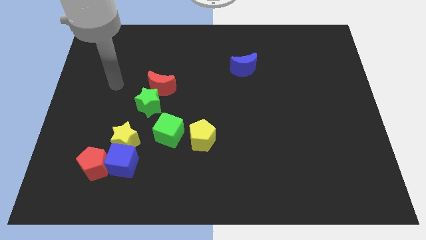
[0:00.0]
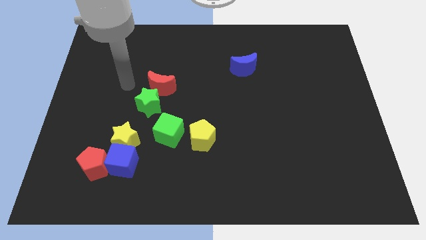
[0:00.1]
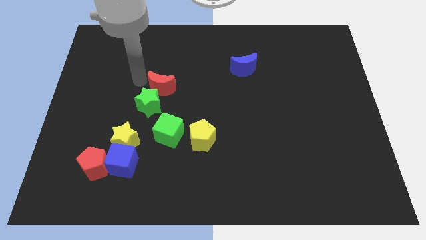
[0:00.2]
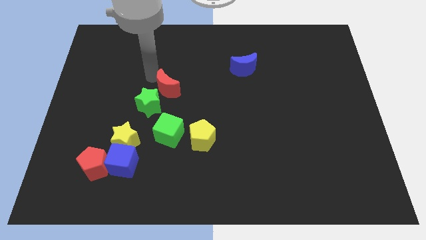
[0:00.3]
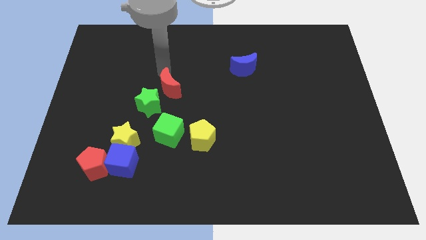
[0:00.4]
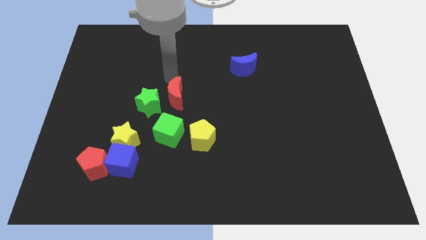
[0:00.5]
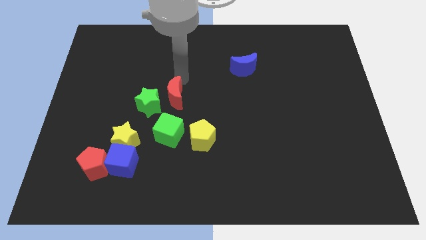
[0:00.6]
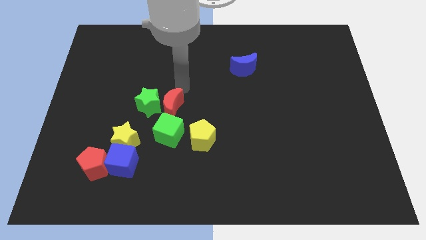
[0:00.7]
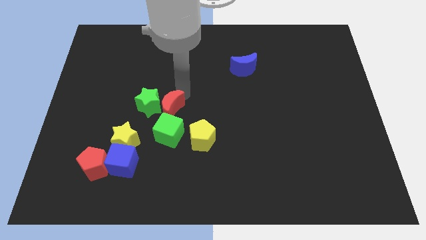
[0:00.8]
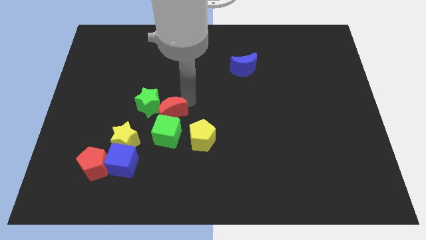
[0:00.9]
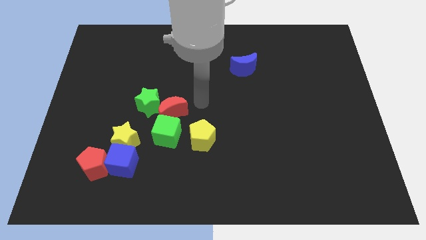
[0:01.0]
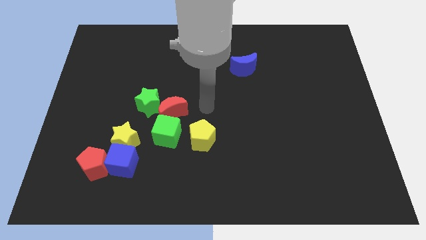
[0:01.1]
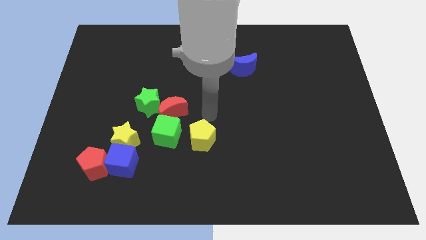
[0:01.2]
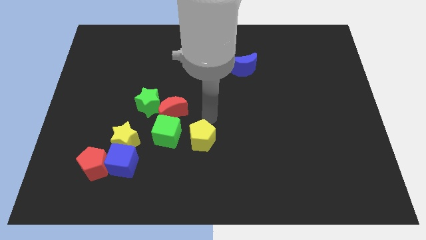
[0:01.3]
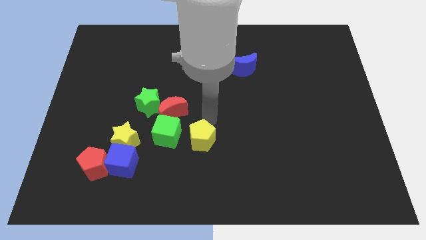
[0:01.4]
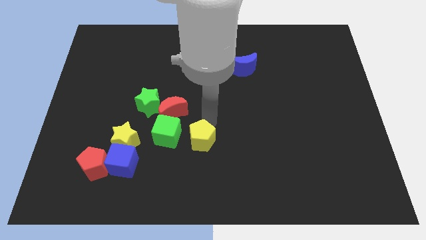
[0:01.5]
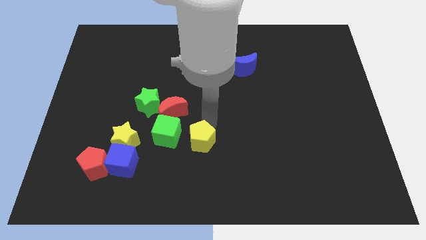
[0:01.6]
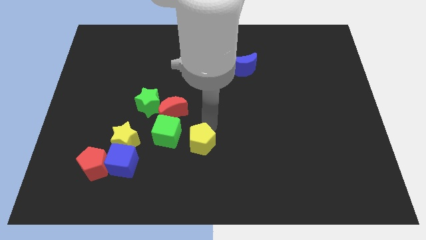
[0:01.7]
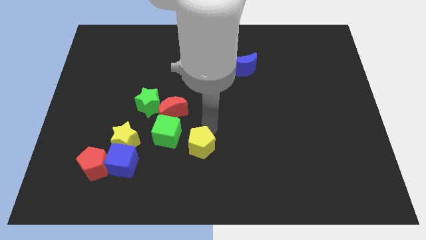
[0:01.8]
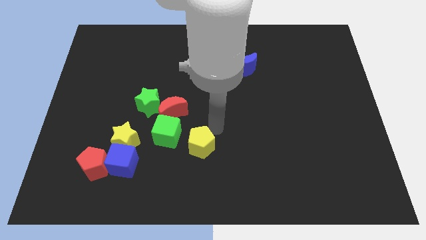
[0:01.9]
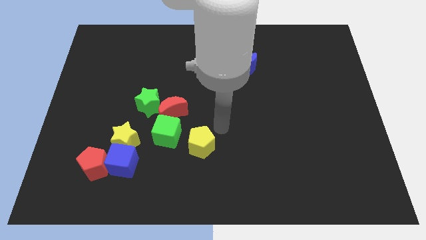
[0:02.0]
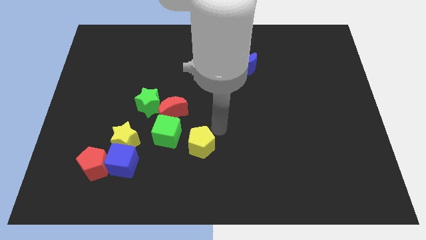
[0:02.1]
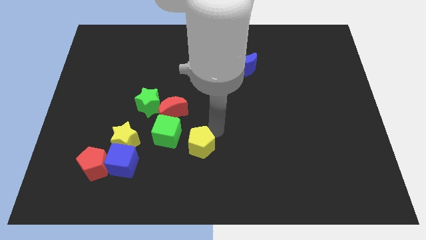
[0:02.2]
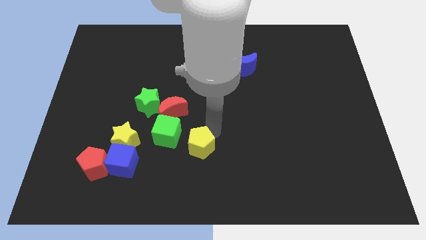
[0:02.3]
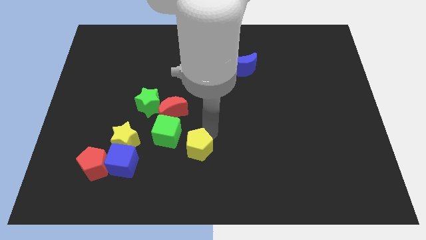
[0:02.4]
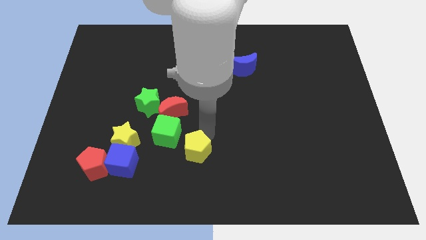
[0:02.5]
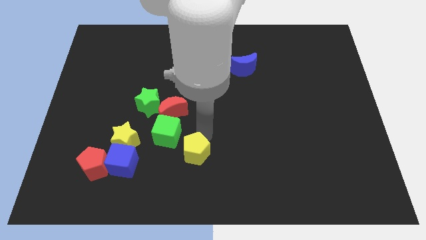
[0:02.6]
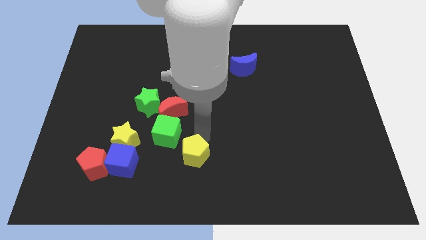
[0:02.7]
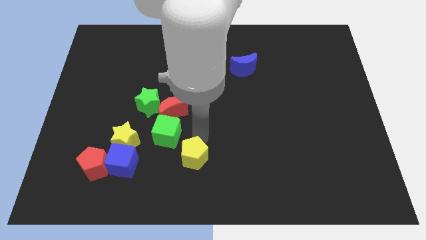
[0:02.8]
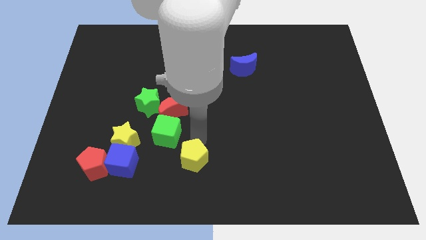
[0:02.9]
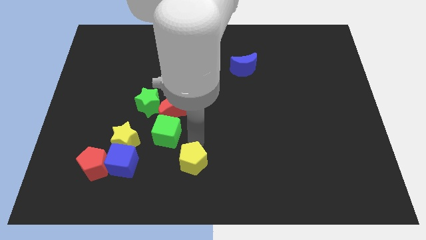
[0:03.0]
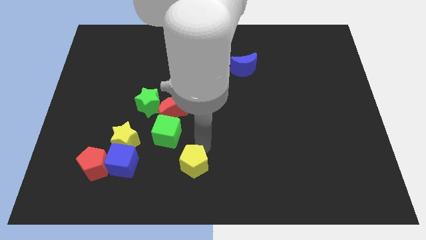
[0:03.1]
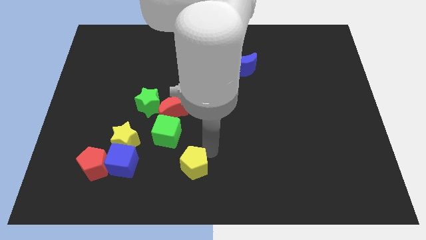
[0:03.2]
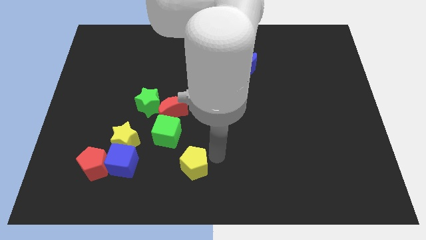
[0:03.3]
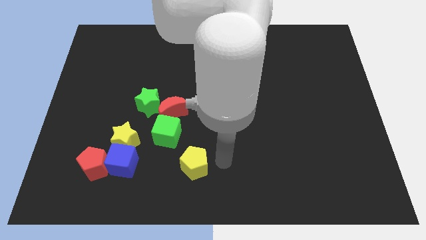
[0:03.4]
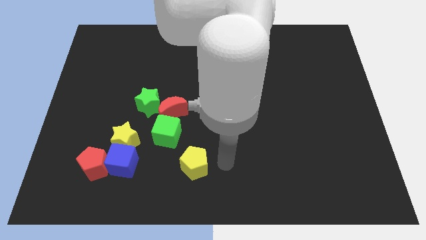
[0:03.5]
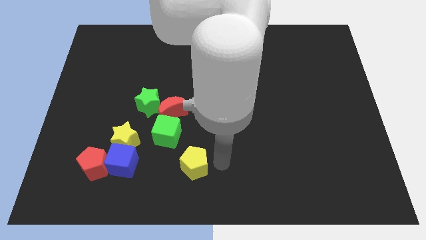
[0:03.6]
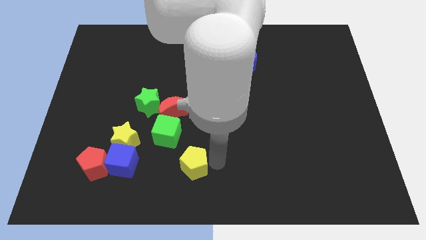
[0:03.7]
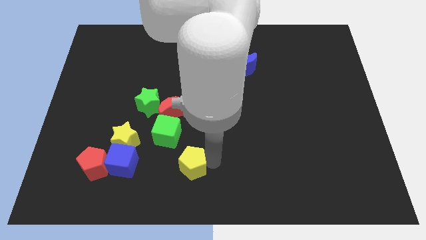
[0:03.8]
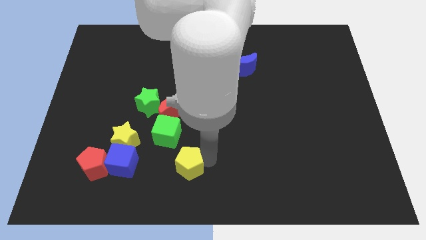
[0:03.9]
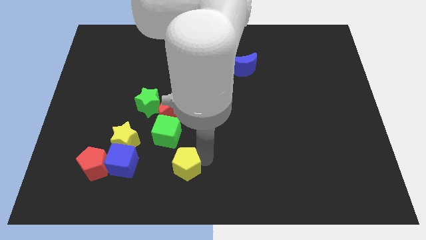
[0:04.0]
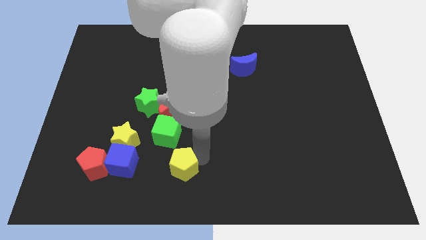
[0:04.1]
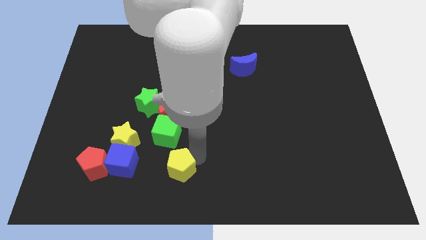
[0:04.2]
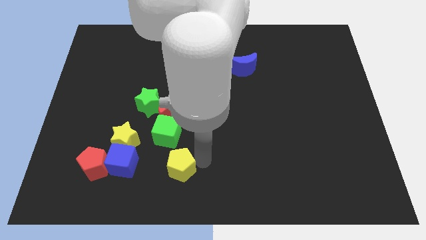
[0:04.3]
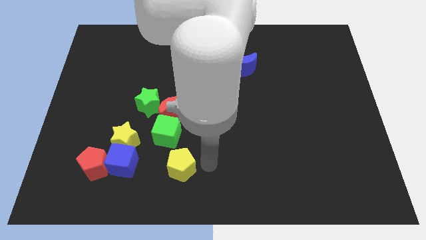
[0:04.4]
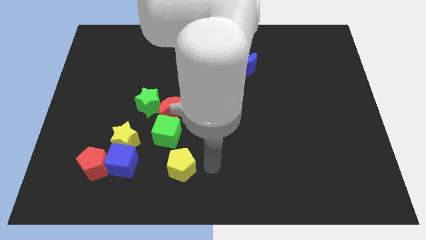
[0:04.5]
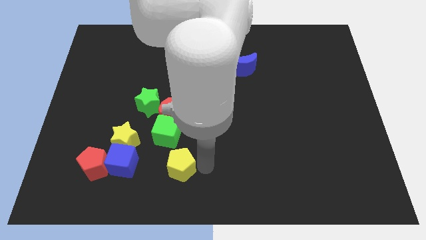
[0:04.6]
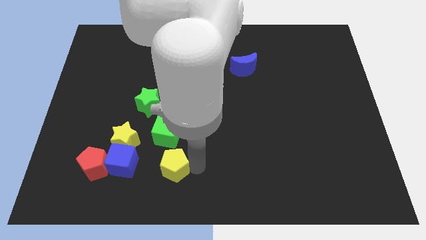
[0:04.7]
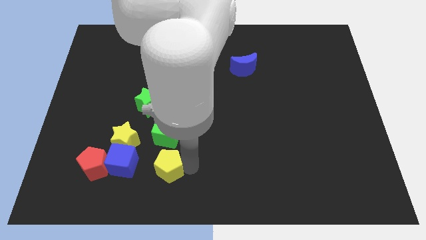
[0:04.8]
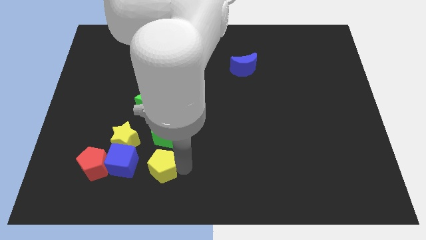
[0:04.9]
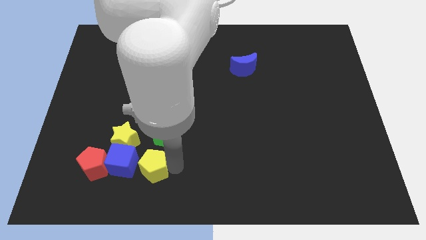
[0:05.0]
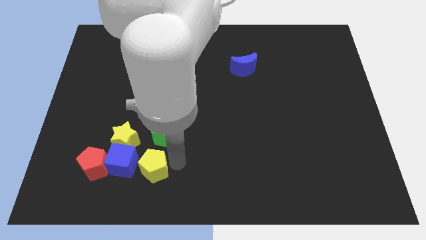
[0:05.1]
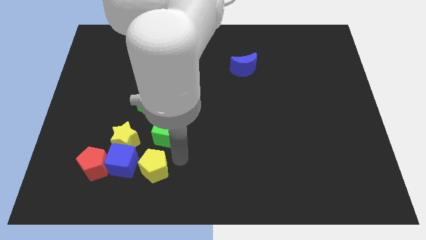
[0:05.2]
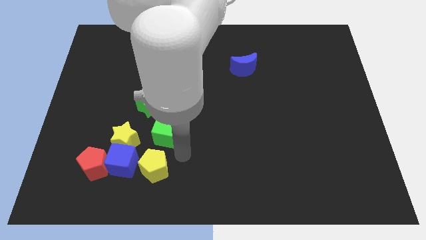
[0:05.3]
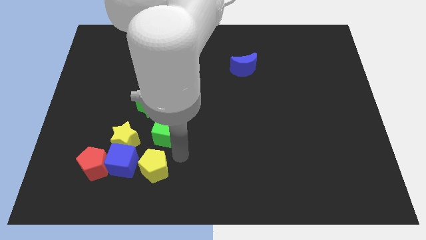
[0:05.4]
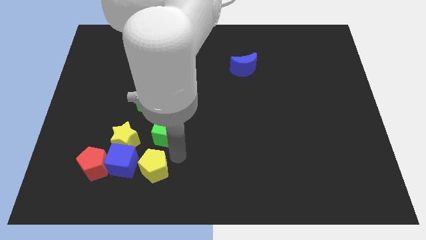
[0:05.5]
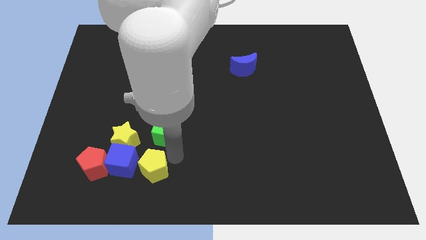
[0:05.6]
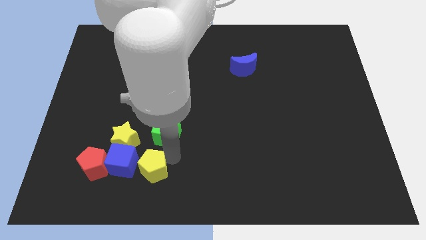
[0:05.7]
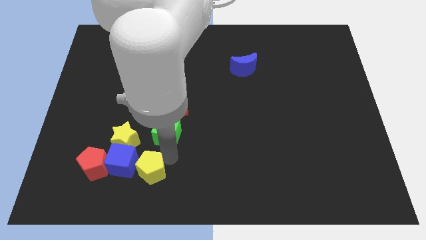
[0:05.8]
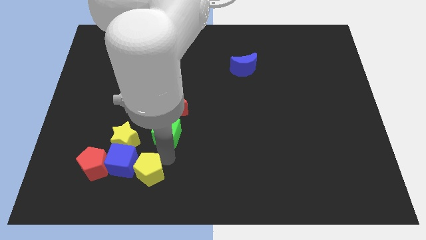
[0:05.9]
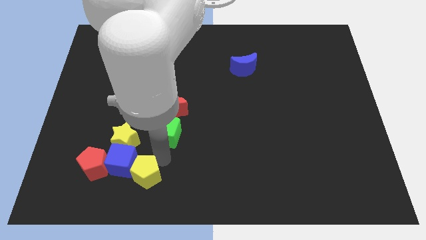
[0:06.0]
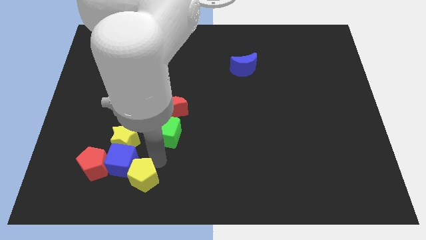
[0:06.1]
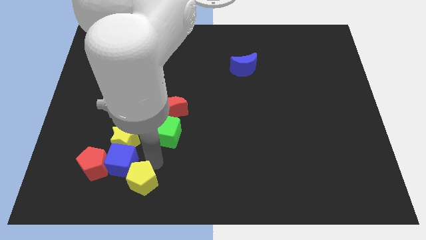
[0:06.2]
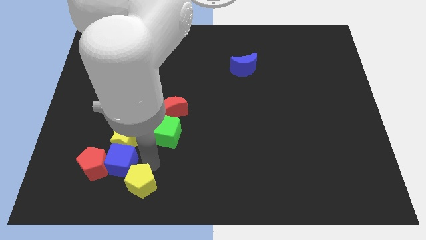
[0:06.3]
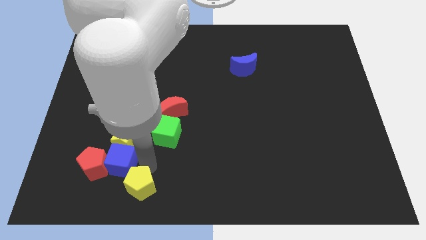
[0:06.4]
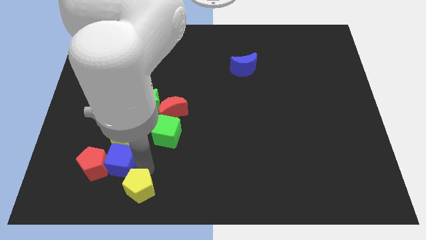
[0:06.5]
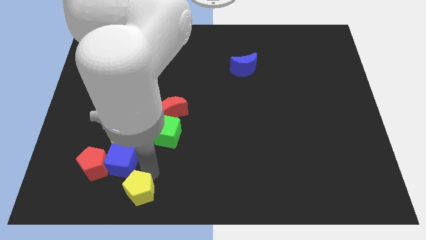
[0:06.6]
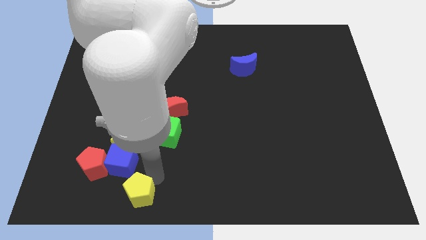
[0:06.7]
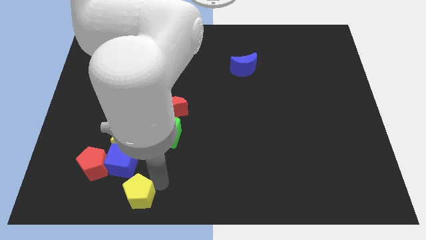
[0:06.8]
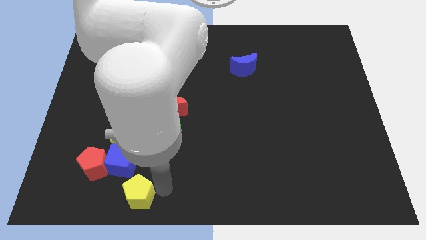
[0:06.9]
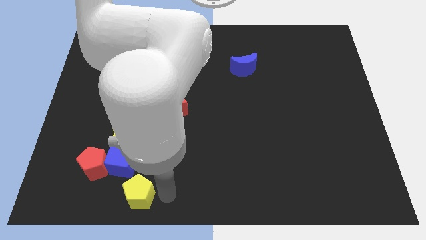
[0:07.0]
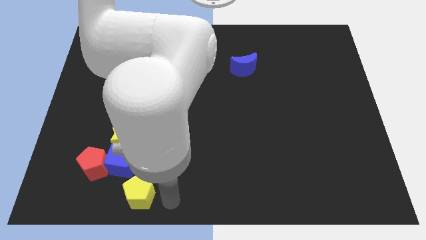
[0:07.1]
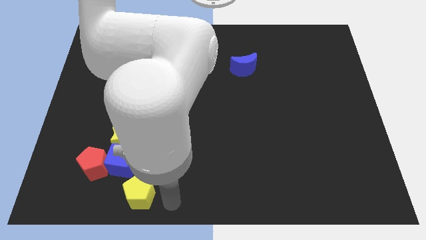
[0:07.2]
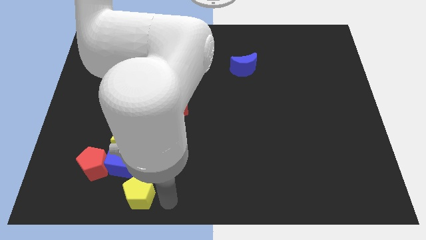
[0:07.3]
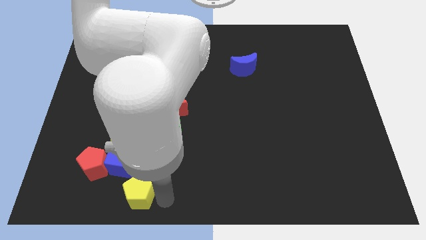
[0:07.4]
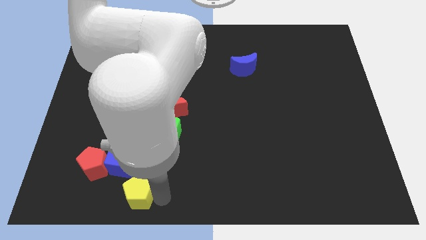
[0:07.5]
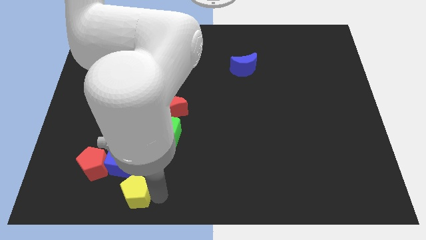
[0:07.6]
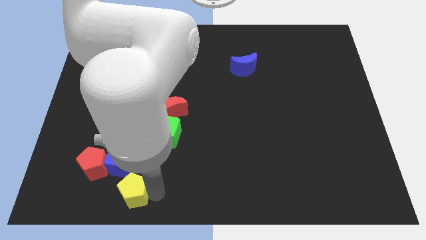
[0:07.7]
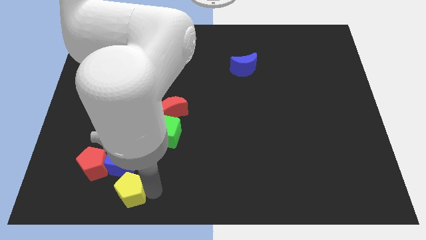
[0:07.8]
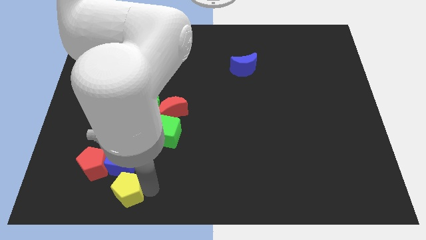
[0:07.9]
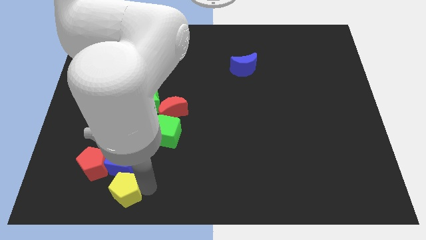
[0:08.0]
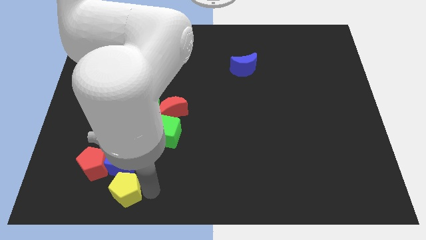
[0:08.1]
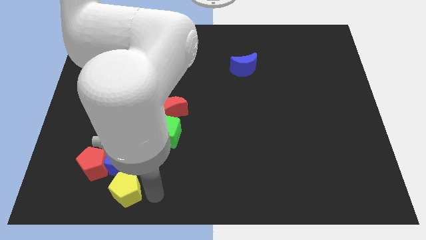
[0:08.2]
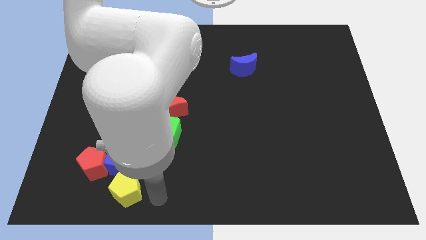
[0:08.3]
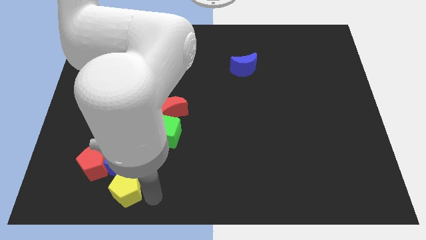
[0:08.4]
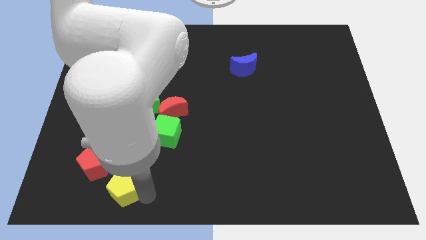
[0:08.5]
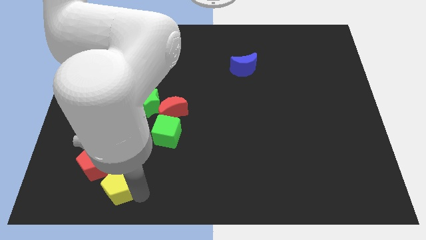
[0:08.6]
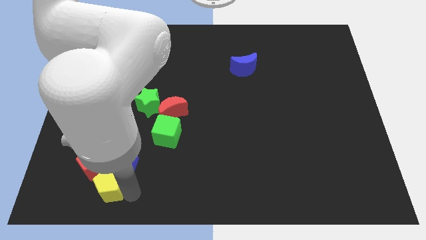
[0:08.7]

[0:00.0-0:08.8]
move the yellow pentagon close to the red pentagon
